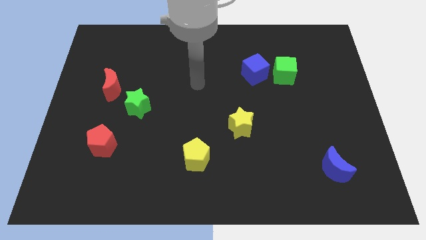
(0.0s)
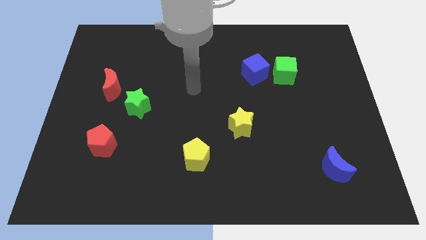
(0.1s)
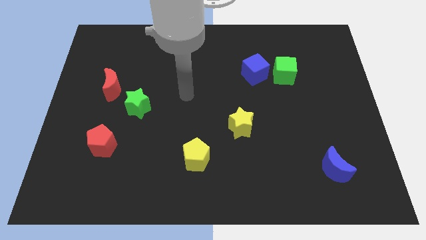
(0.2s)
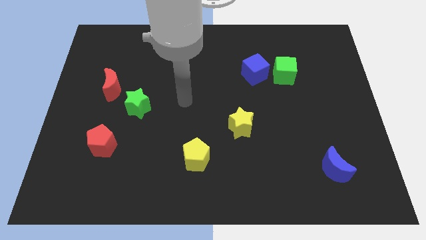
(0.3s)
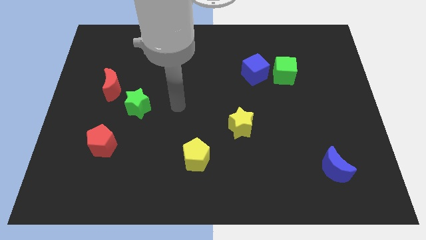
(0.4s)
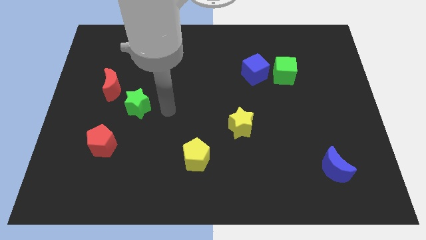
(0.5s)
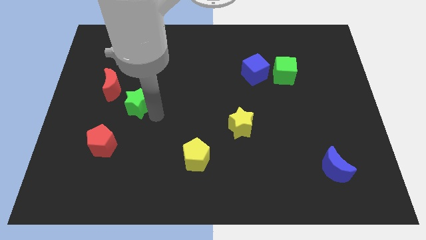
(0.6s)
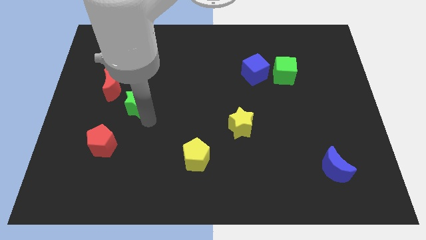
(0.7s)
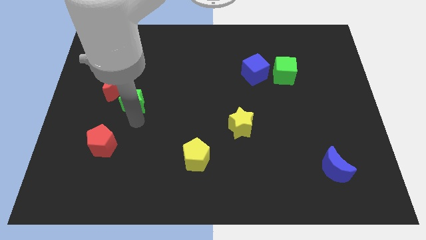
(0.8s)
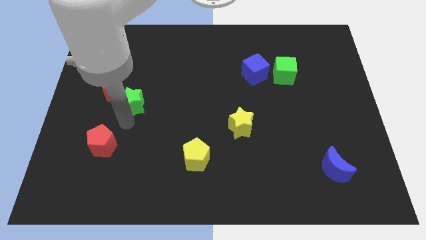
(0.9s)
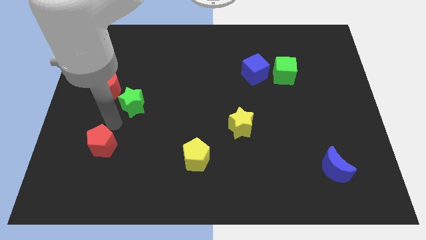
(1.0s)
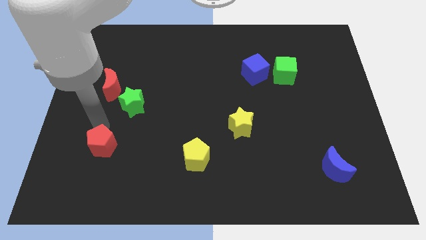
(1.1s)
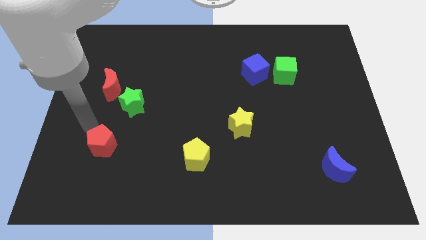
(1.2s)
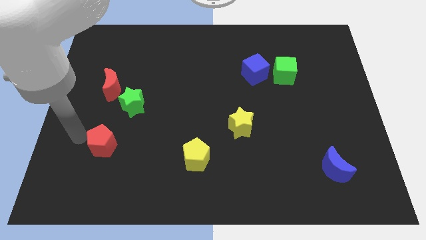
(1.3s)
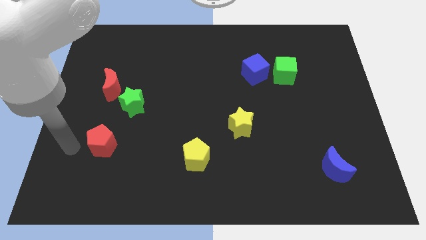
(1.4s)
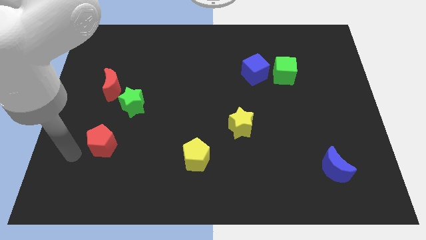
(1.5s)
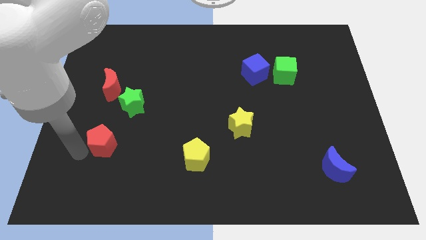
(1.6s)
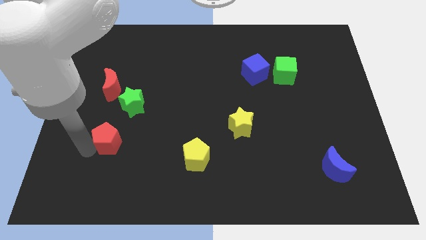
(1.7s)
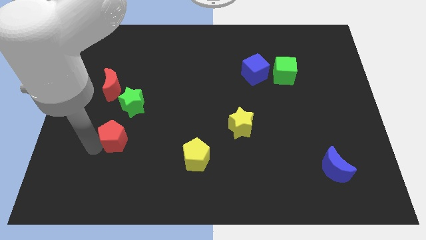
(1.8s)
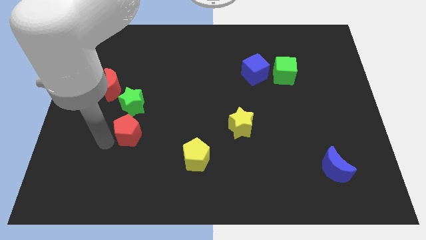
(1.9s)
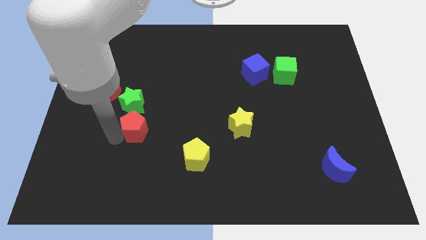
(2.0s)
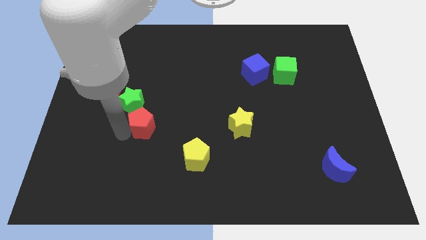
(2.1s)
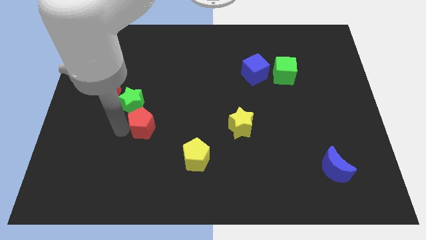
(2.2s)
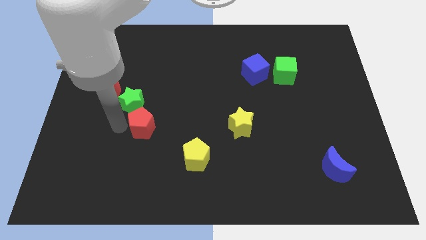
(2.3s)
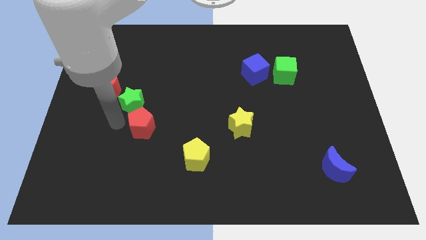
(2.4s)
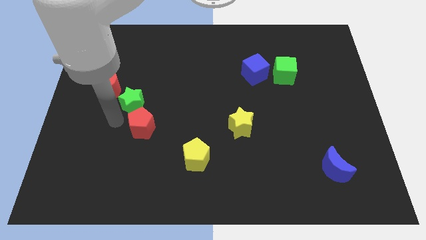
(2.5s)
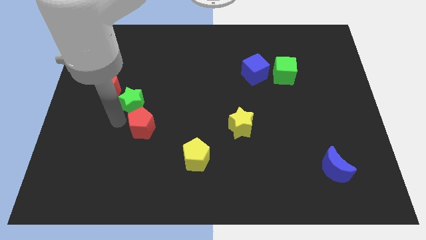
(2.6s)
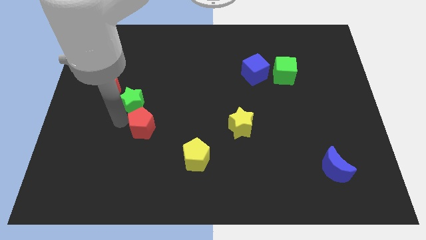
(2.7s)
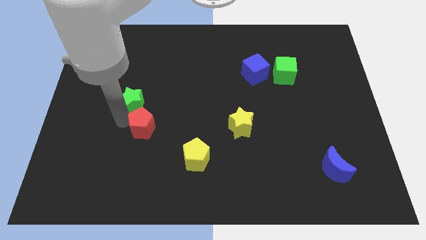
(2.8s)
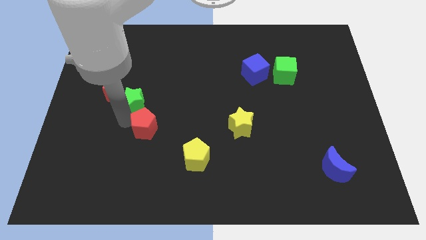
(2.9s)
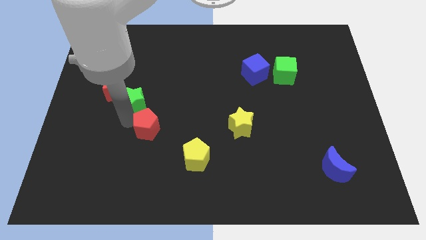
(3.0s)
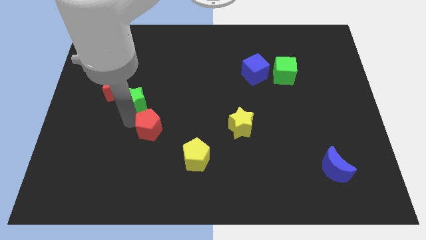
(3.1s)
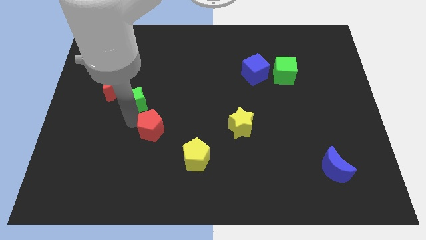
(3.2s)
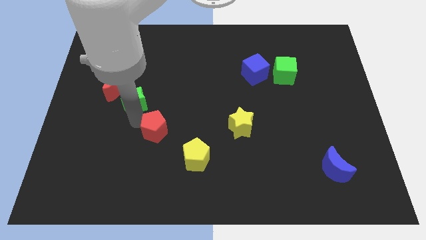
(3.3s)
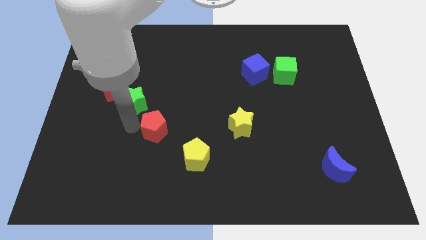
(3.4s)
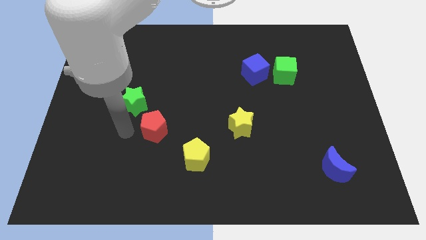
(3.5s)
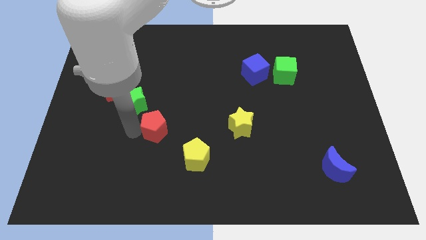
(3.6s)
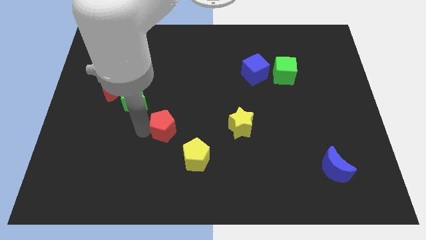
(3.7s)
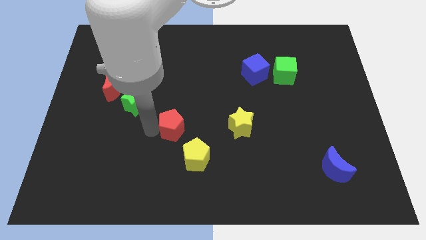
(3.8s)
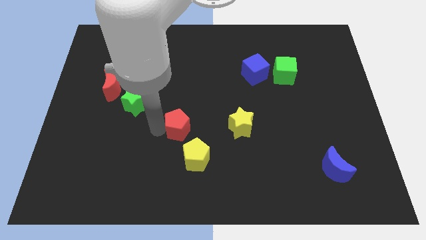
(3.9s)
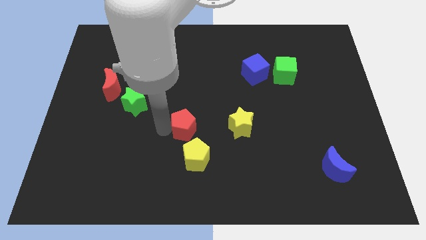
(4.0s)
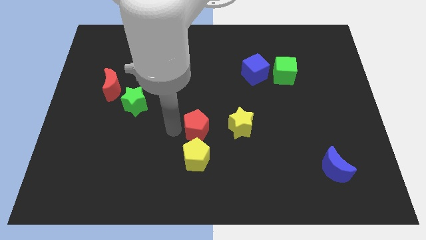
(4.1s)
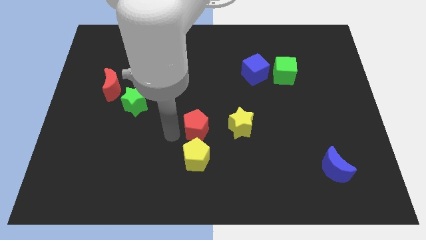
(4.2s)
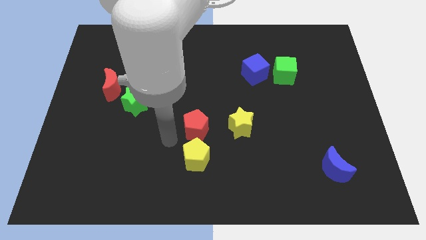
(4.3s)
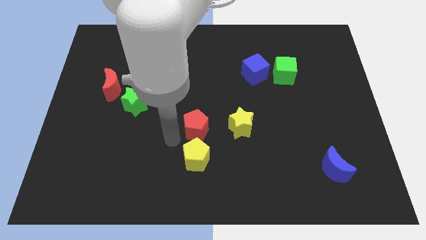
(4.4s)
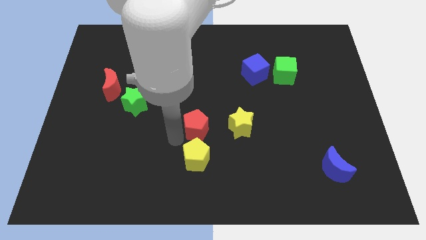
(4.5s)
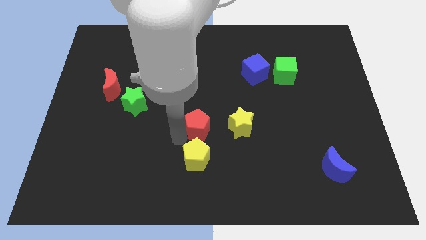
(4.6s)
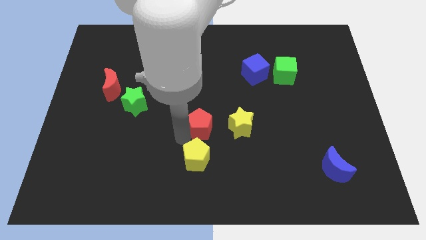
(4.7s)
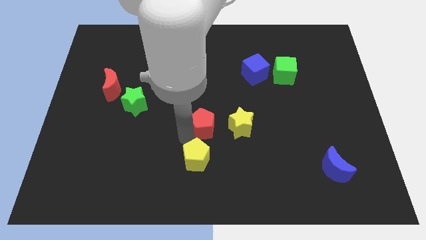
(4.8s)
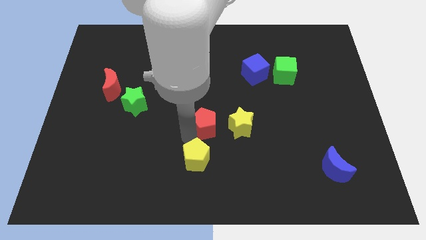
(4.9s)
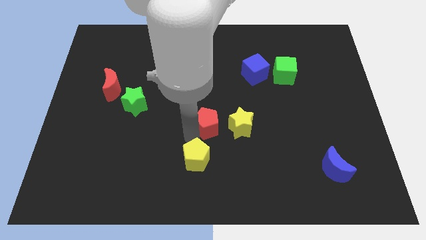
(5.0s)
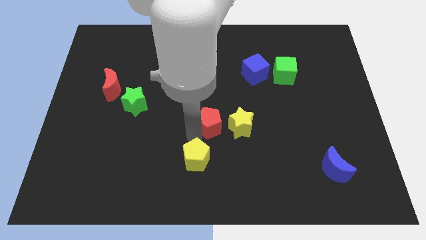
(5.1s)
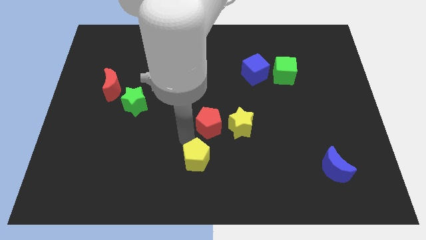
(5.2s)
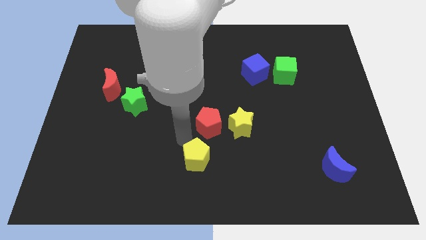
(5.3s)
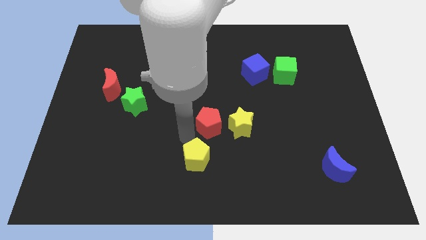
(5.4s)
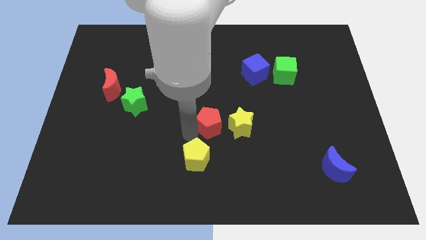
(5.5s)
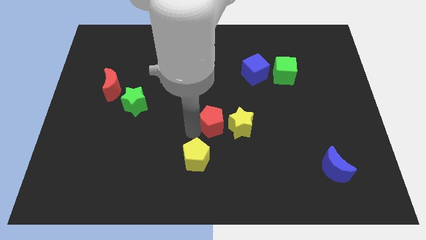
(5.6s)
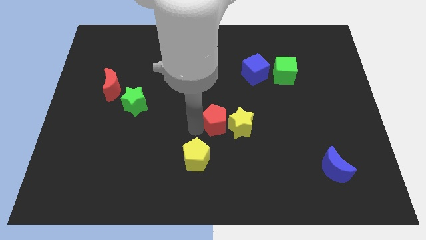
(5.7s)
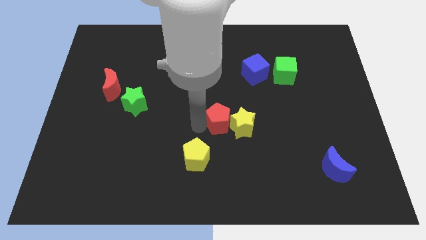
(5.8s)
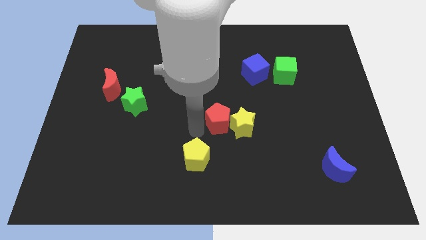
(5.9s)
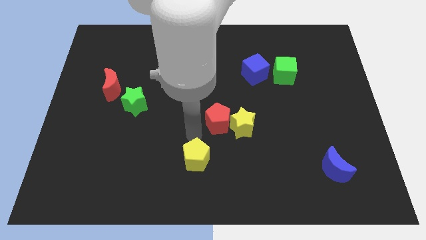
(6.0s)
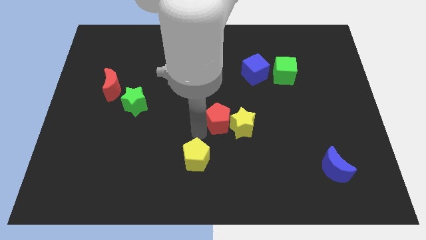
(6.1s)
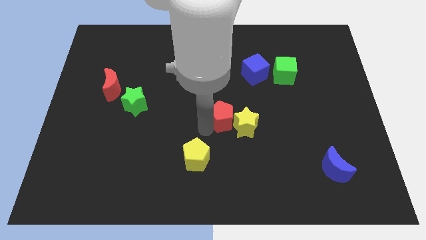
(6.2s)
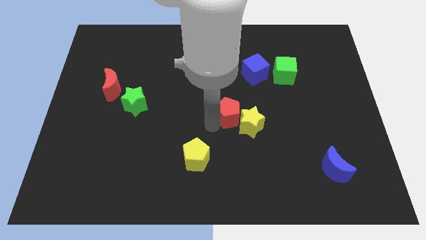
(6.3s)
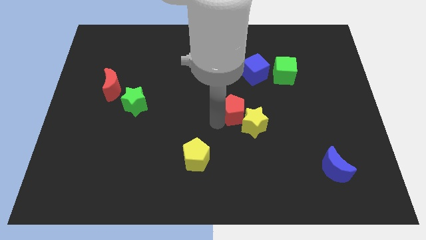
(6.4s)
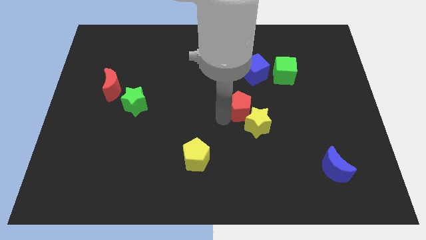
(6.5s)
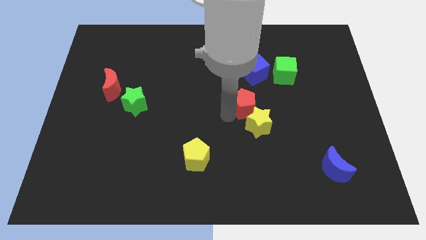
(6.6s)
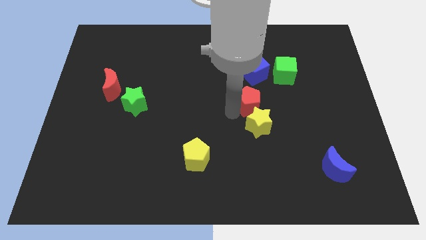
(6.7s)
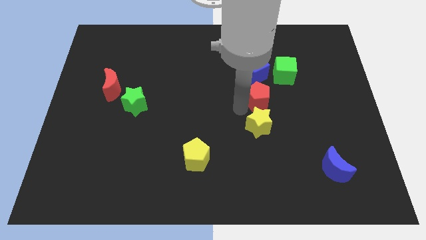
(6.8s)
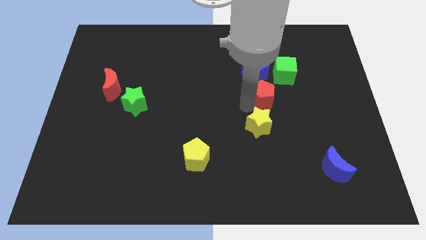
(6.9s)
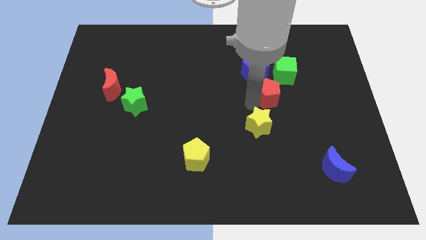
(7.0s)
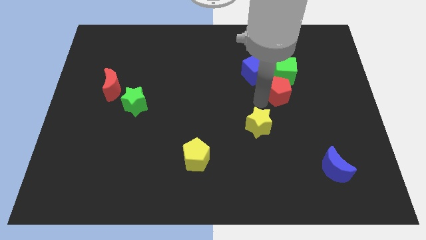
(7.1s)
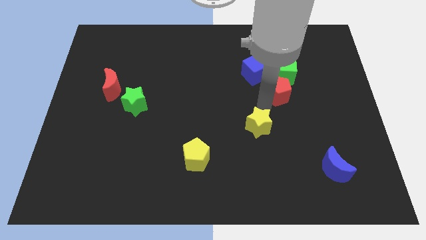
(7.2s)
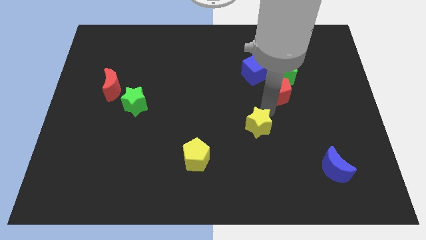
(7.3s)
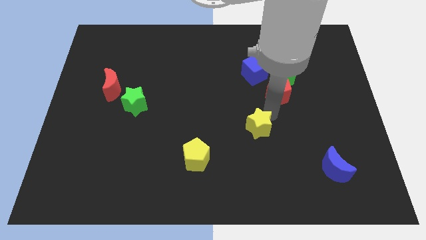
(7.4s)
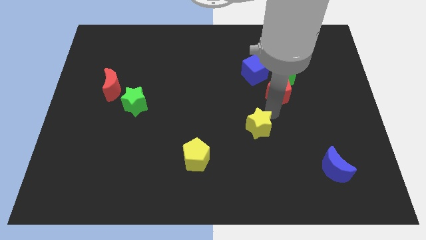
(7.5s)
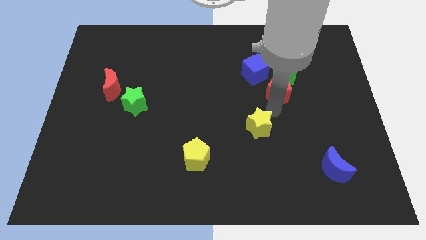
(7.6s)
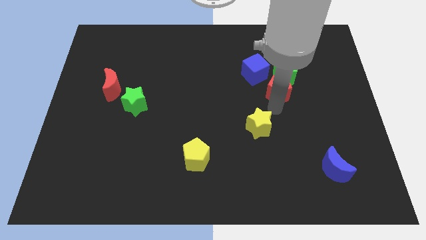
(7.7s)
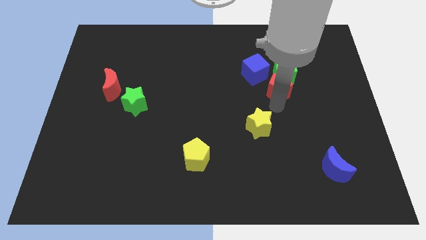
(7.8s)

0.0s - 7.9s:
move the red pentagon to the green cube
